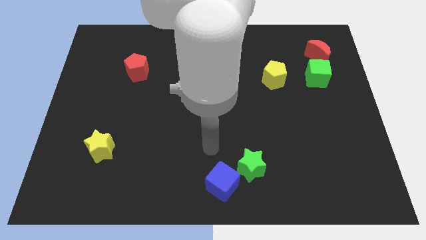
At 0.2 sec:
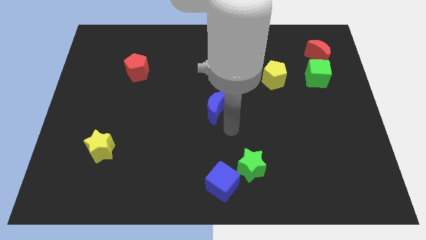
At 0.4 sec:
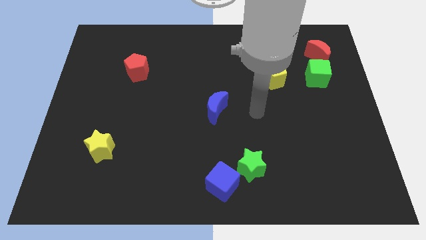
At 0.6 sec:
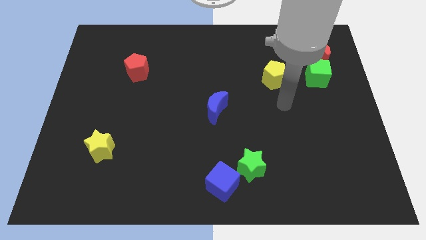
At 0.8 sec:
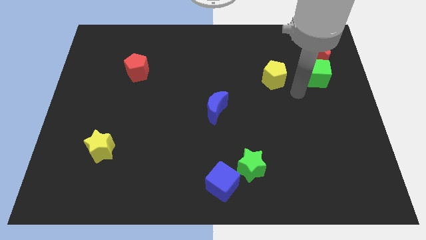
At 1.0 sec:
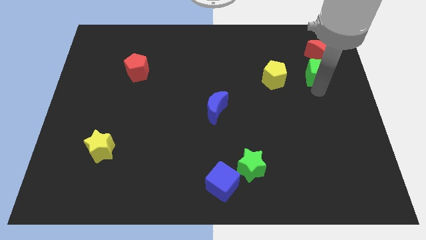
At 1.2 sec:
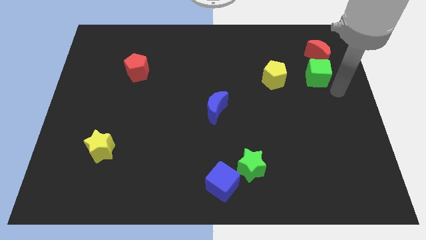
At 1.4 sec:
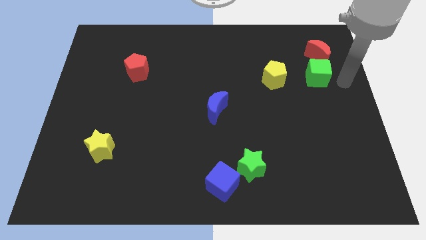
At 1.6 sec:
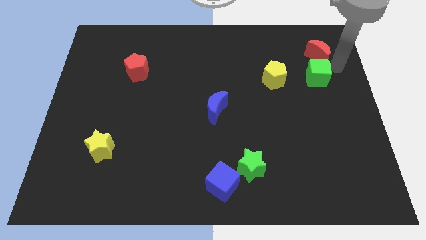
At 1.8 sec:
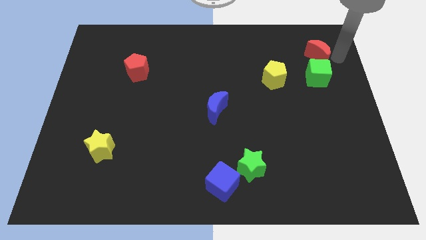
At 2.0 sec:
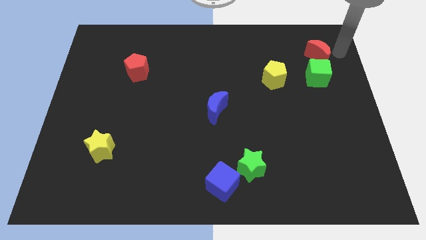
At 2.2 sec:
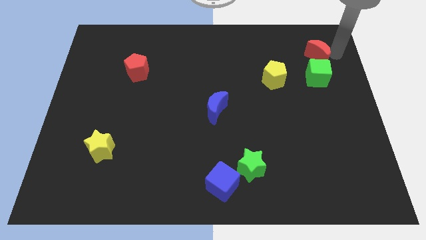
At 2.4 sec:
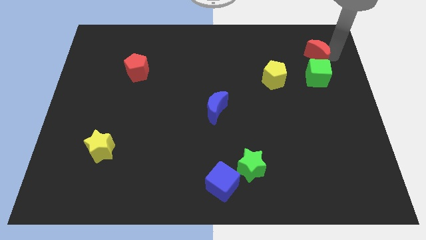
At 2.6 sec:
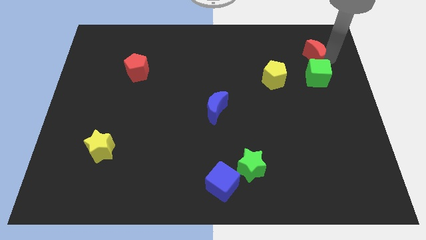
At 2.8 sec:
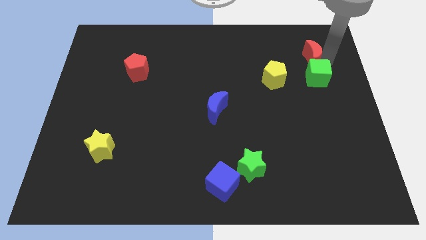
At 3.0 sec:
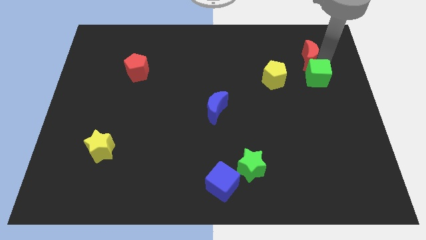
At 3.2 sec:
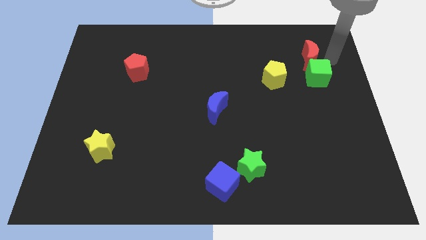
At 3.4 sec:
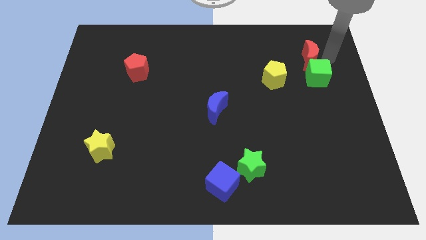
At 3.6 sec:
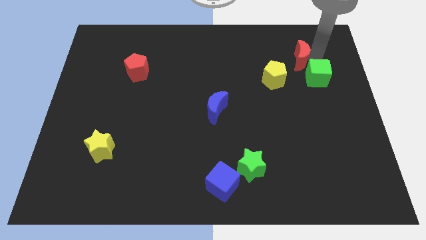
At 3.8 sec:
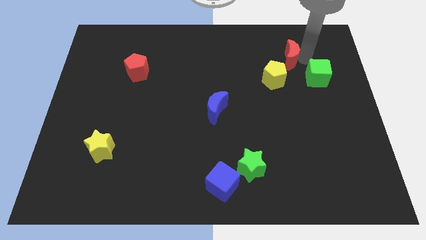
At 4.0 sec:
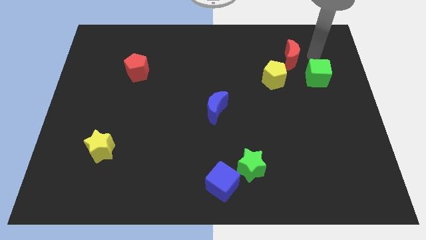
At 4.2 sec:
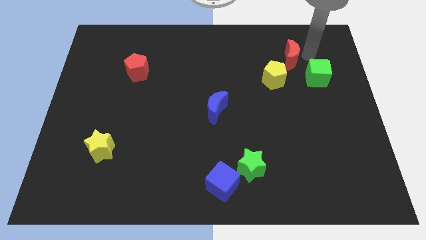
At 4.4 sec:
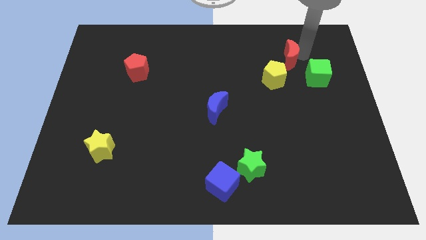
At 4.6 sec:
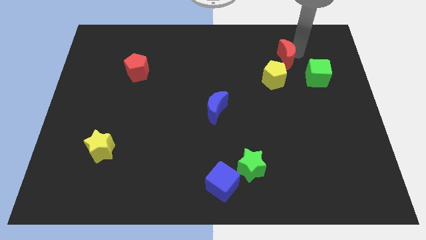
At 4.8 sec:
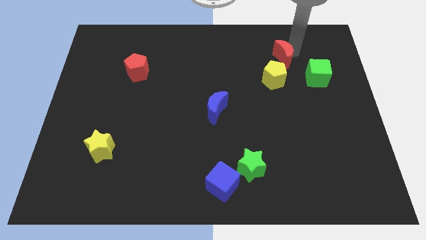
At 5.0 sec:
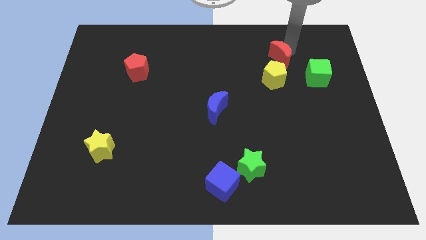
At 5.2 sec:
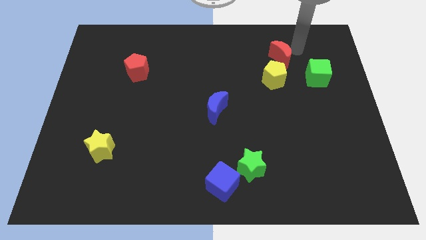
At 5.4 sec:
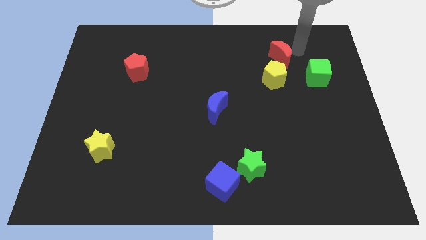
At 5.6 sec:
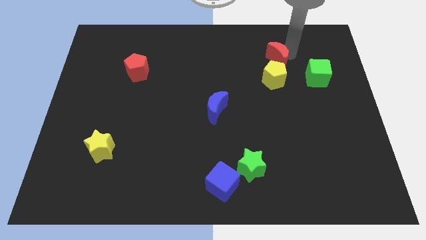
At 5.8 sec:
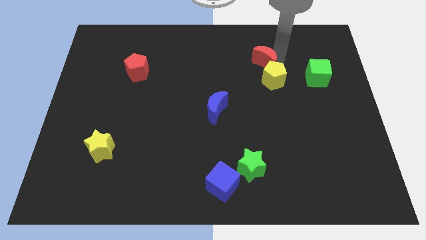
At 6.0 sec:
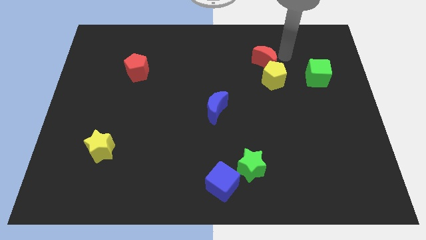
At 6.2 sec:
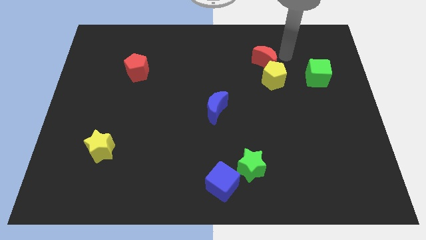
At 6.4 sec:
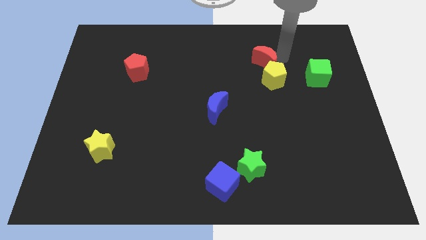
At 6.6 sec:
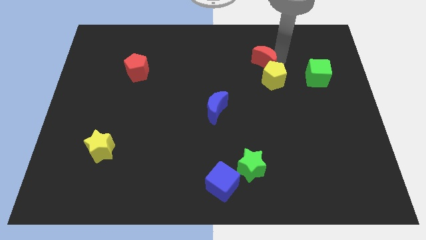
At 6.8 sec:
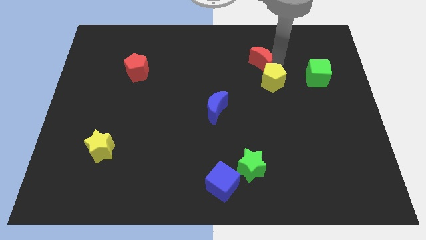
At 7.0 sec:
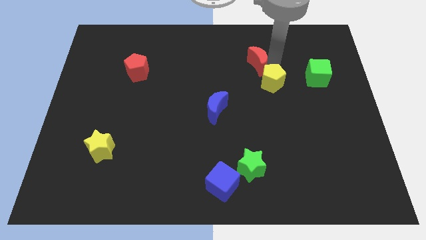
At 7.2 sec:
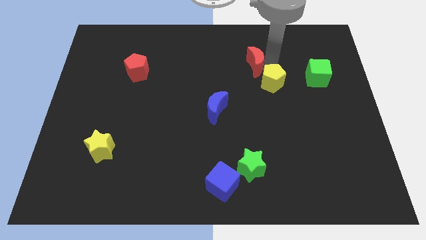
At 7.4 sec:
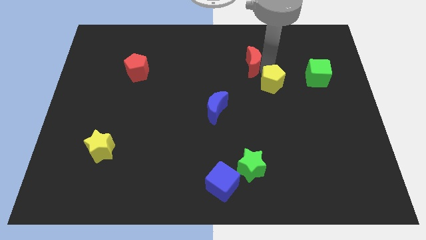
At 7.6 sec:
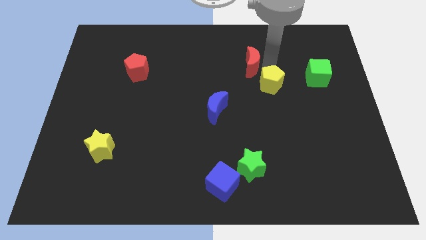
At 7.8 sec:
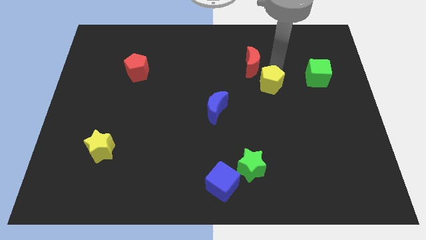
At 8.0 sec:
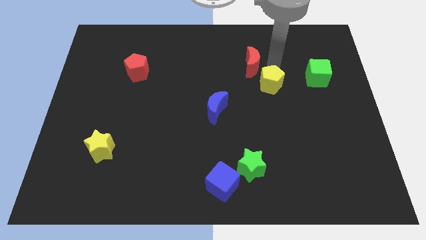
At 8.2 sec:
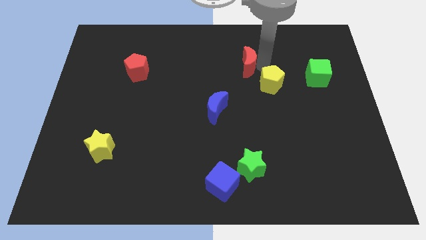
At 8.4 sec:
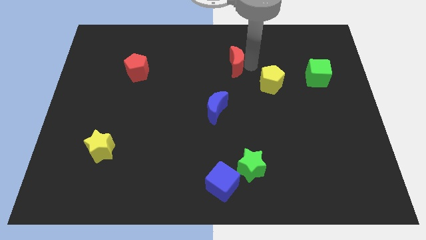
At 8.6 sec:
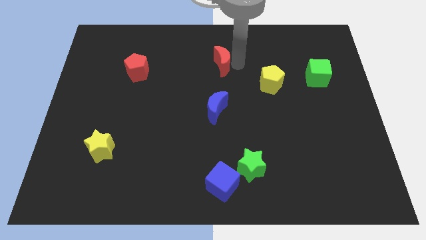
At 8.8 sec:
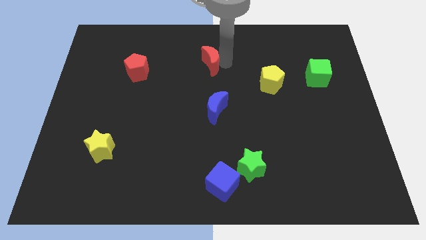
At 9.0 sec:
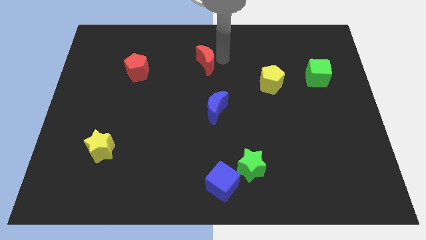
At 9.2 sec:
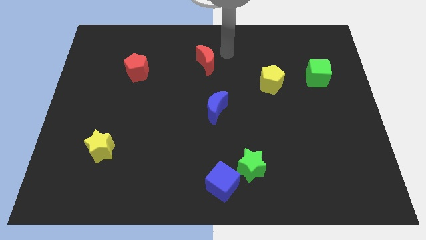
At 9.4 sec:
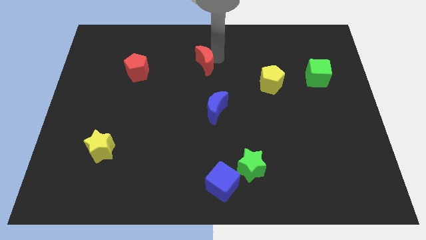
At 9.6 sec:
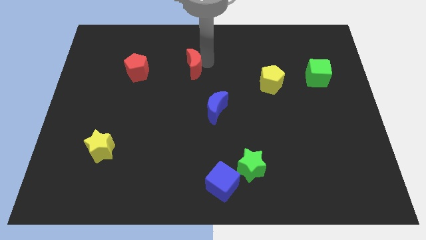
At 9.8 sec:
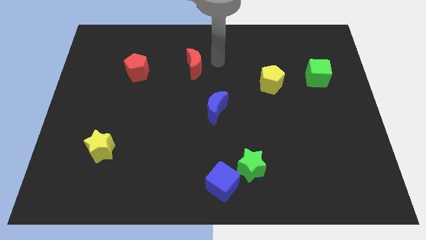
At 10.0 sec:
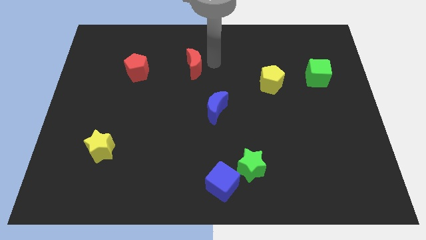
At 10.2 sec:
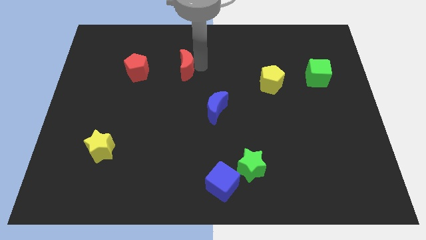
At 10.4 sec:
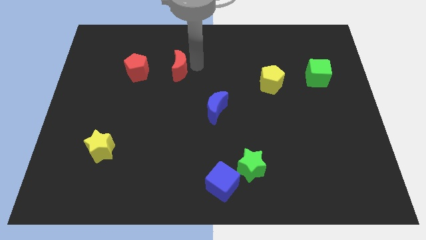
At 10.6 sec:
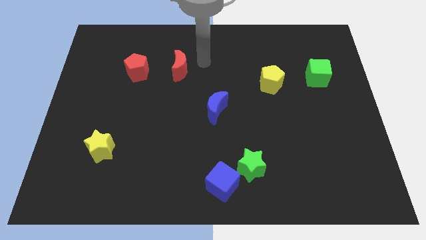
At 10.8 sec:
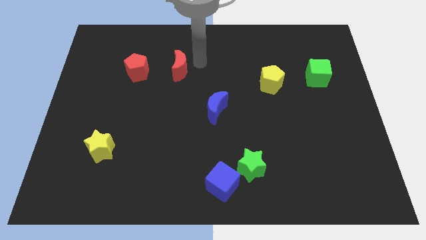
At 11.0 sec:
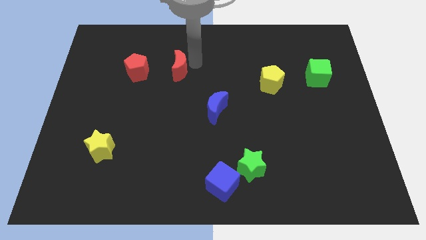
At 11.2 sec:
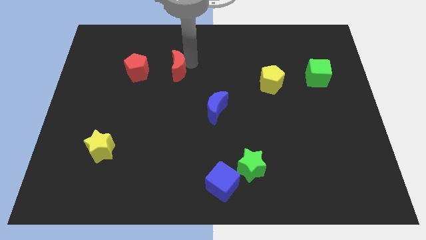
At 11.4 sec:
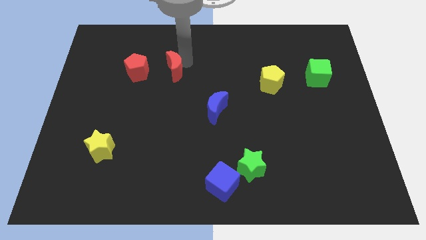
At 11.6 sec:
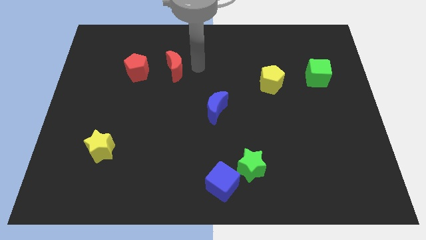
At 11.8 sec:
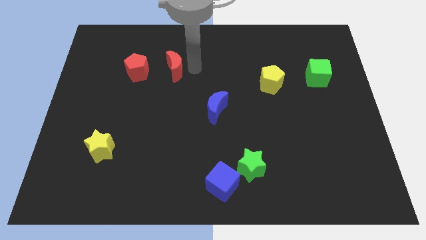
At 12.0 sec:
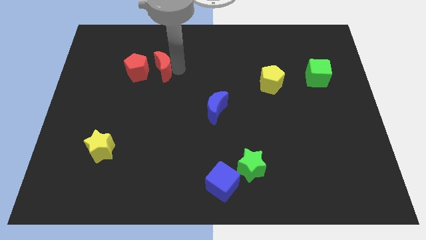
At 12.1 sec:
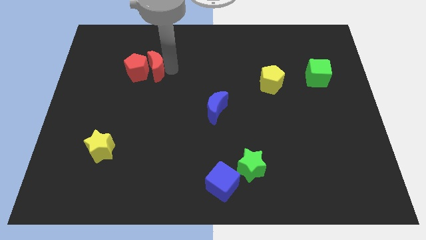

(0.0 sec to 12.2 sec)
slide the red moon next to the red pentagon

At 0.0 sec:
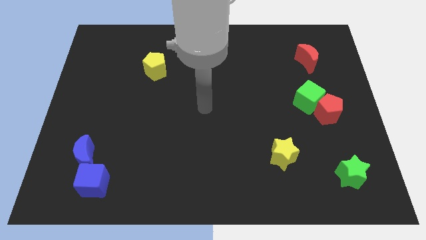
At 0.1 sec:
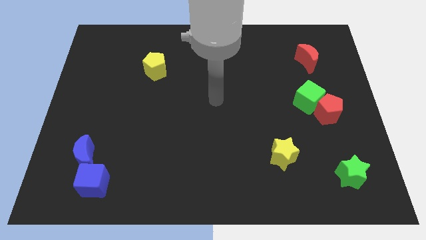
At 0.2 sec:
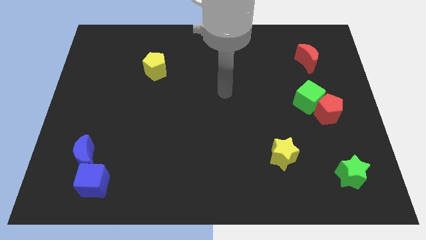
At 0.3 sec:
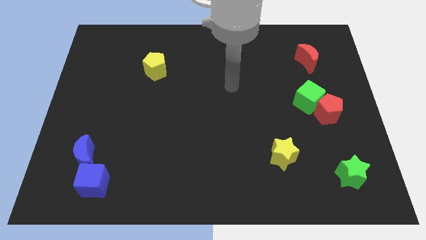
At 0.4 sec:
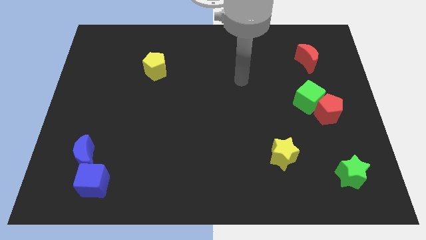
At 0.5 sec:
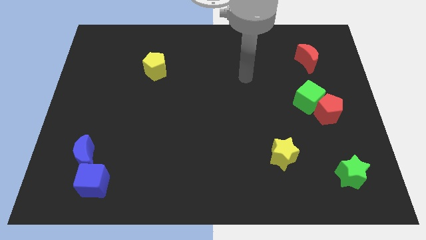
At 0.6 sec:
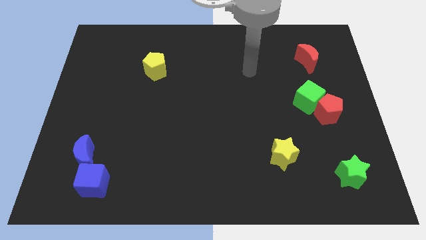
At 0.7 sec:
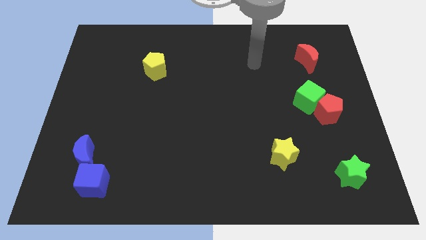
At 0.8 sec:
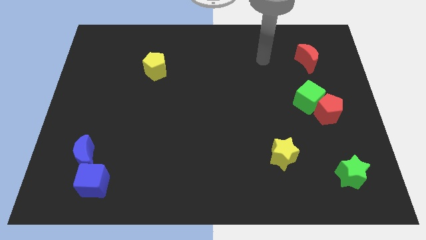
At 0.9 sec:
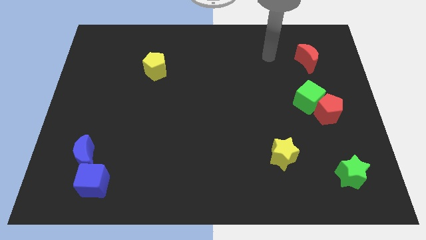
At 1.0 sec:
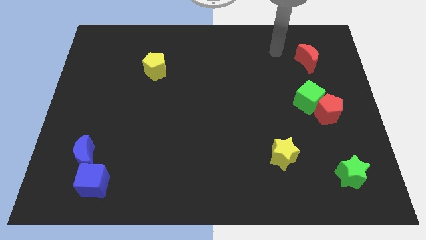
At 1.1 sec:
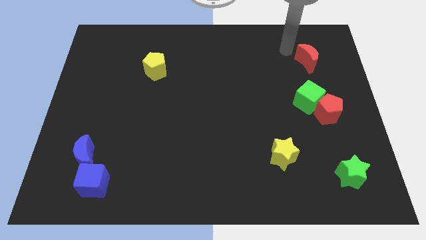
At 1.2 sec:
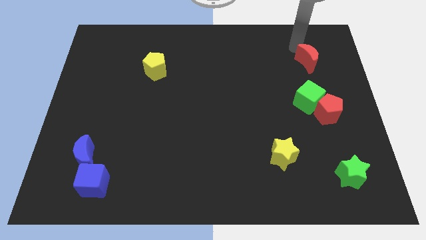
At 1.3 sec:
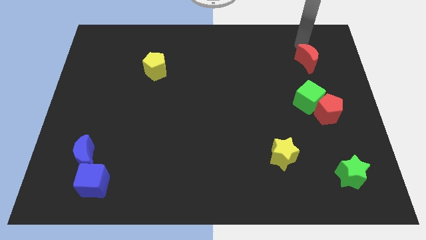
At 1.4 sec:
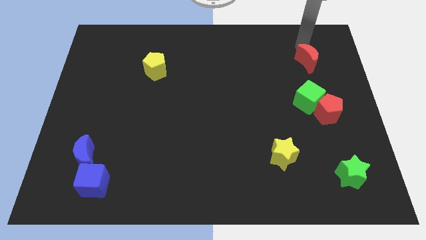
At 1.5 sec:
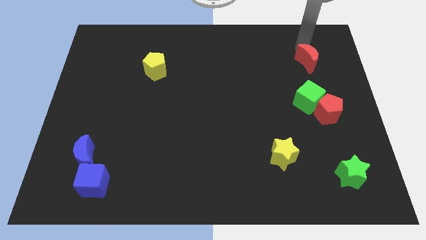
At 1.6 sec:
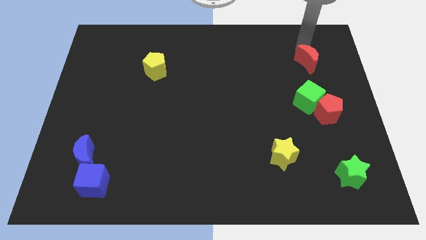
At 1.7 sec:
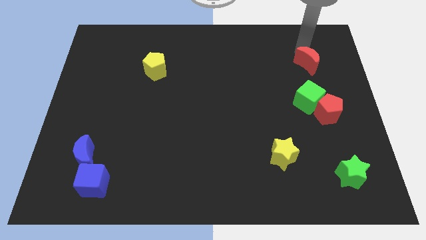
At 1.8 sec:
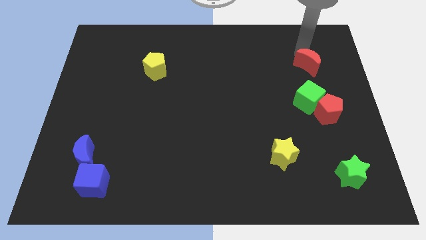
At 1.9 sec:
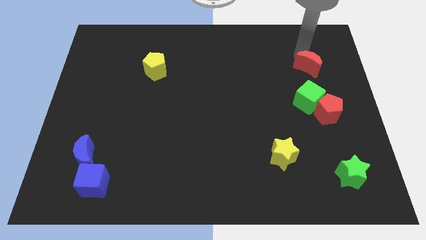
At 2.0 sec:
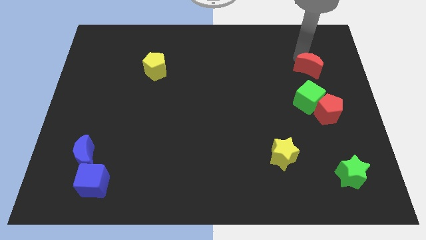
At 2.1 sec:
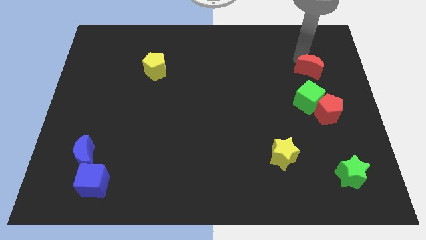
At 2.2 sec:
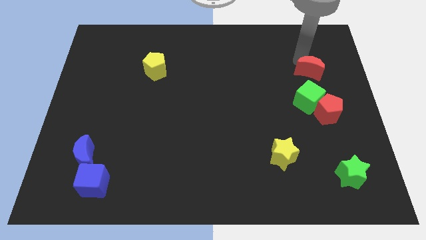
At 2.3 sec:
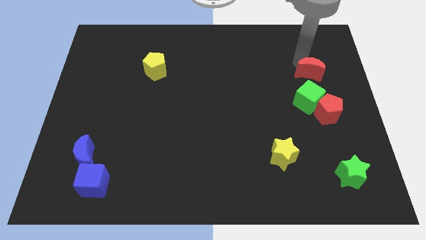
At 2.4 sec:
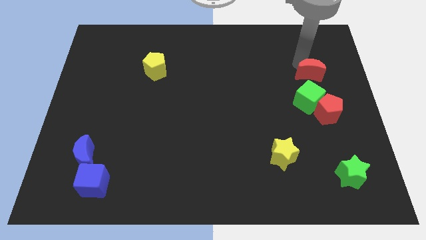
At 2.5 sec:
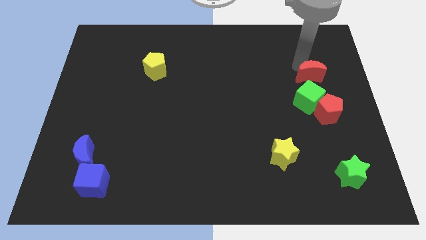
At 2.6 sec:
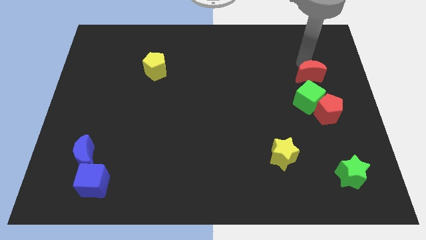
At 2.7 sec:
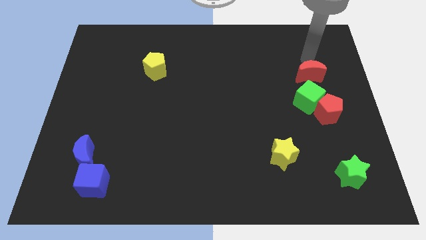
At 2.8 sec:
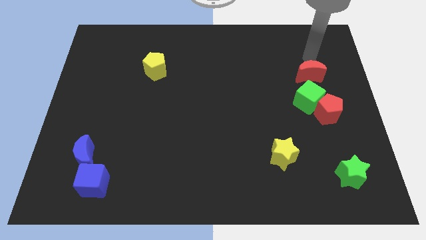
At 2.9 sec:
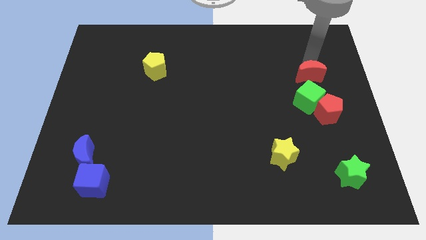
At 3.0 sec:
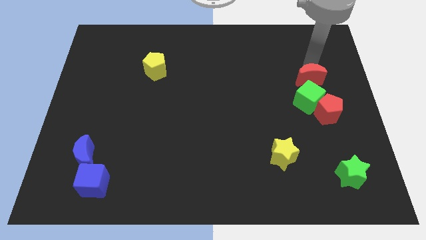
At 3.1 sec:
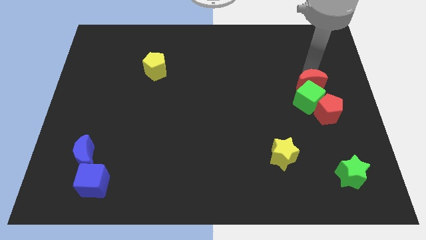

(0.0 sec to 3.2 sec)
move the red moon next to the green cube
